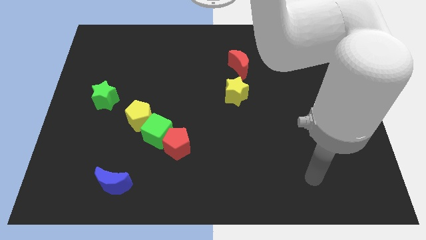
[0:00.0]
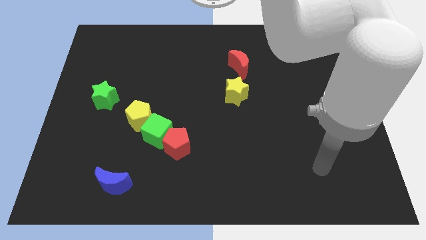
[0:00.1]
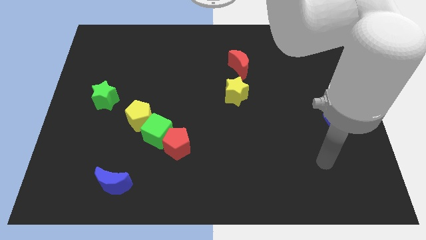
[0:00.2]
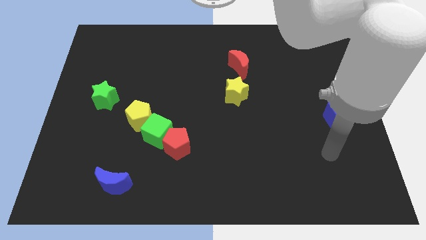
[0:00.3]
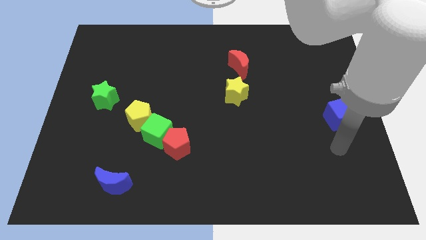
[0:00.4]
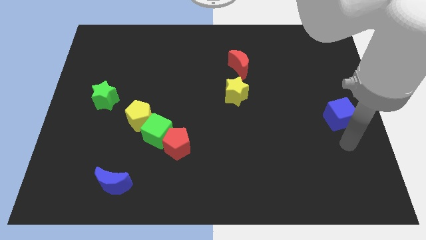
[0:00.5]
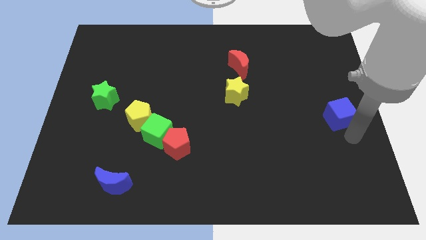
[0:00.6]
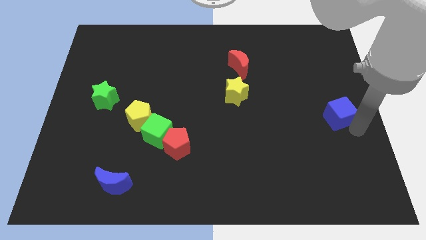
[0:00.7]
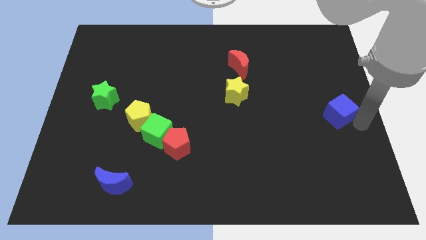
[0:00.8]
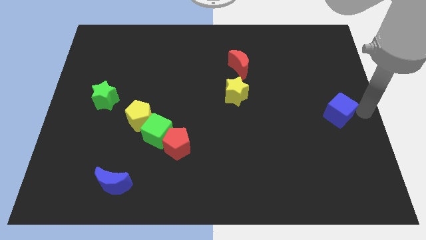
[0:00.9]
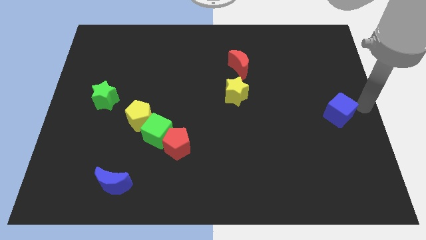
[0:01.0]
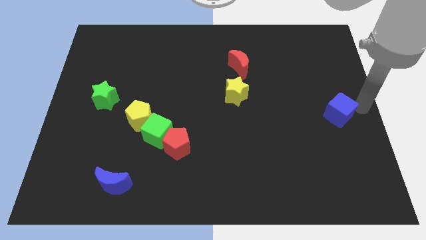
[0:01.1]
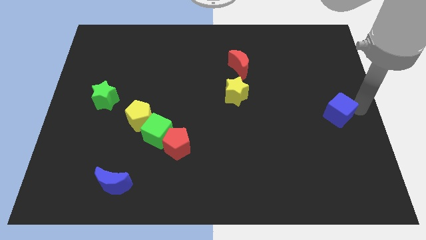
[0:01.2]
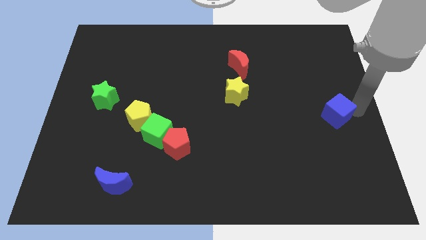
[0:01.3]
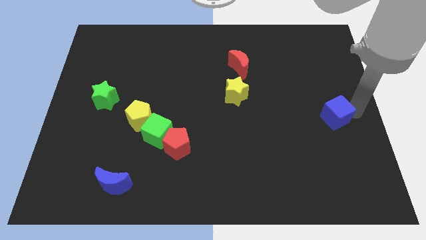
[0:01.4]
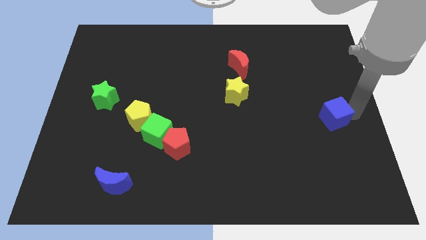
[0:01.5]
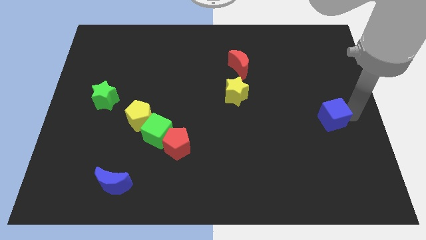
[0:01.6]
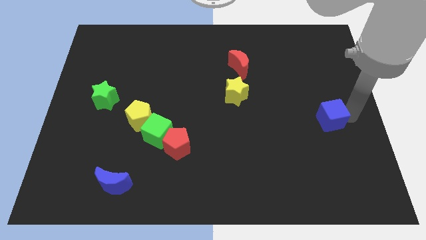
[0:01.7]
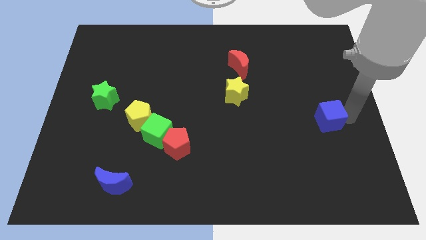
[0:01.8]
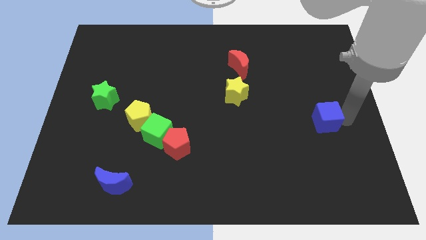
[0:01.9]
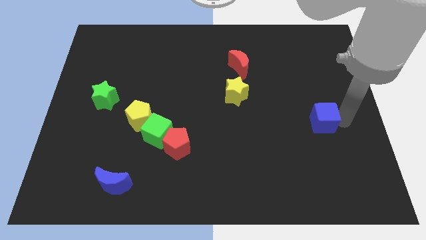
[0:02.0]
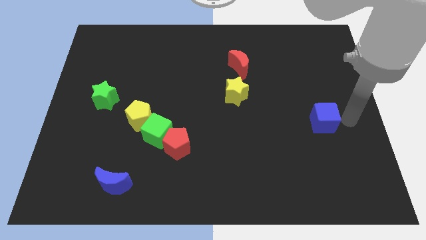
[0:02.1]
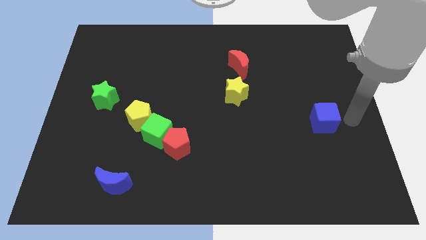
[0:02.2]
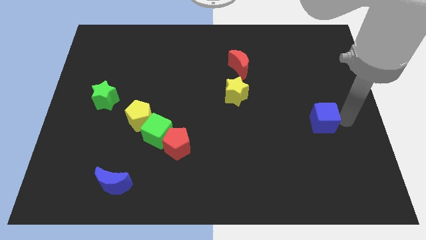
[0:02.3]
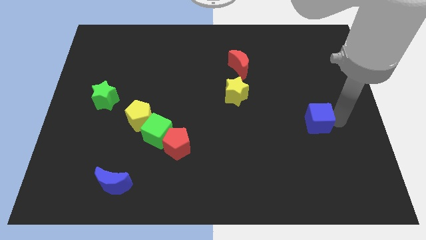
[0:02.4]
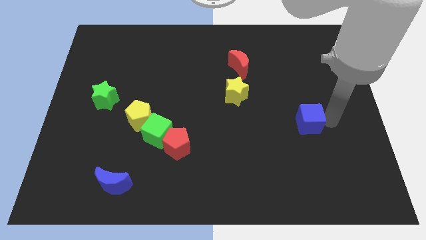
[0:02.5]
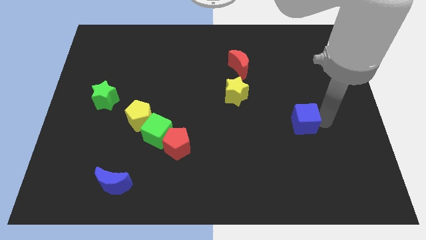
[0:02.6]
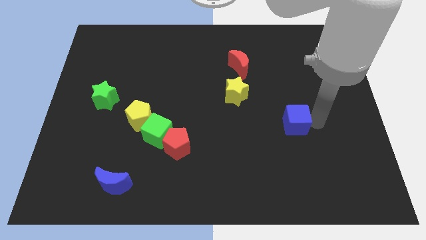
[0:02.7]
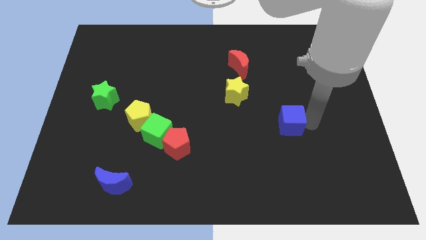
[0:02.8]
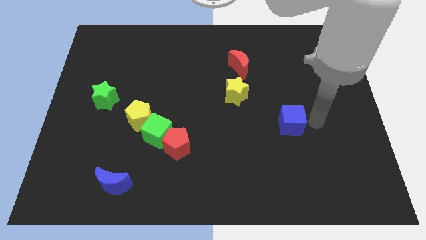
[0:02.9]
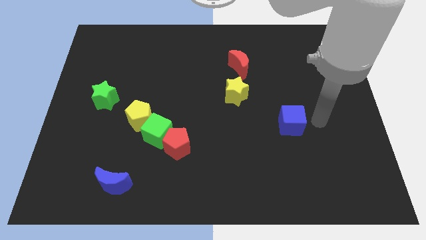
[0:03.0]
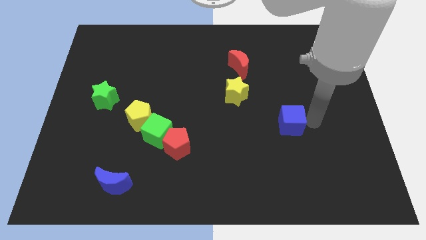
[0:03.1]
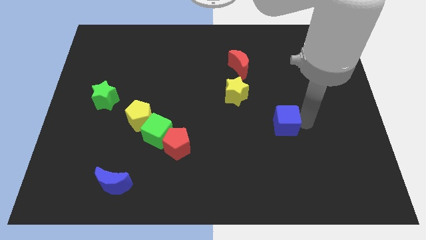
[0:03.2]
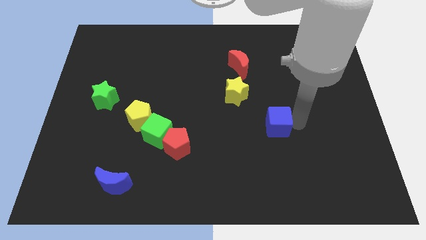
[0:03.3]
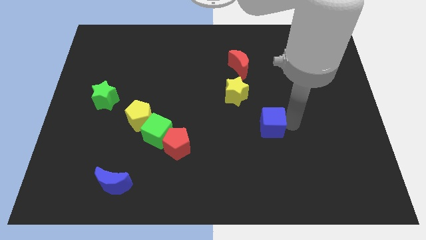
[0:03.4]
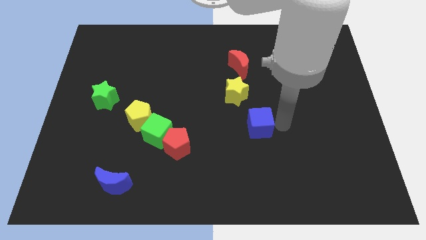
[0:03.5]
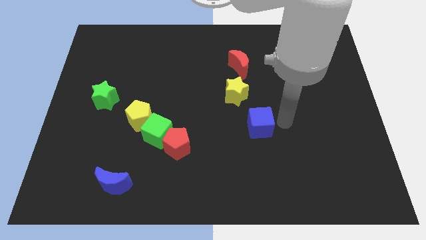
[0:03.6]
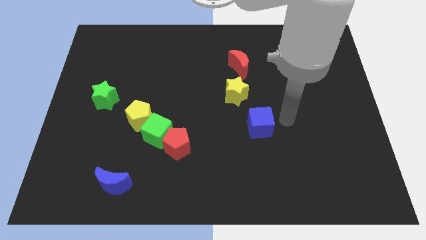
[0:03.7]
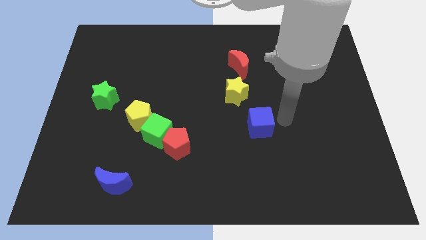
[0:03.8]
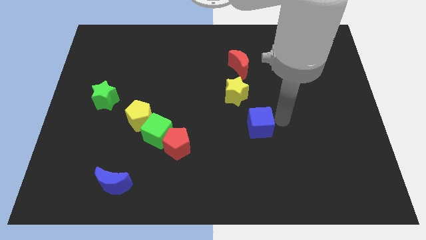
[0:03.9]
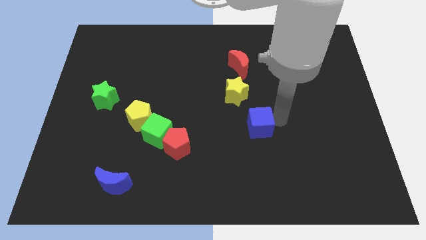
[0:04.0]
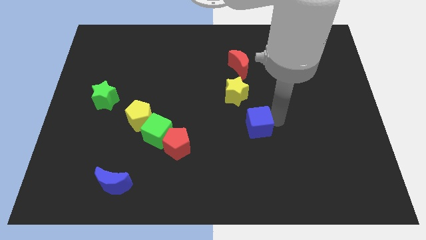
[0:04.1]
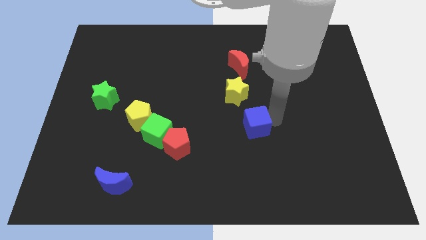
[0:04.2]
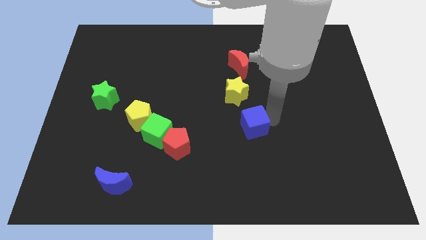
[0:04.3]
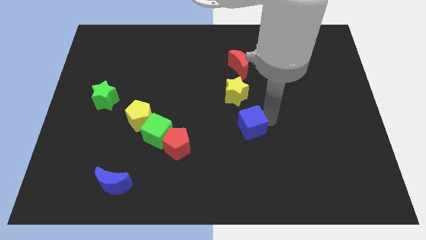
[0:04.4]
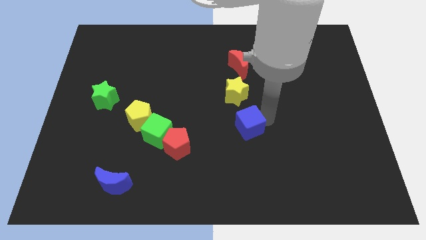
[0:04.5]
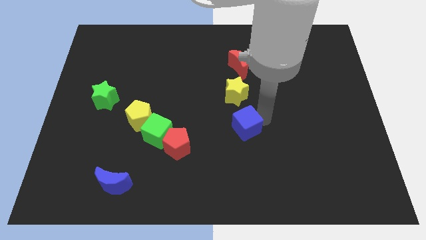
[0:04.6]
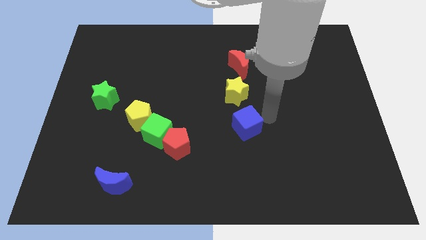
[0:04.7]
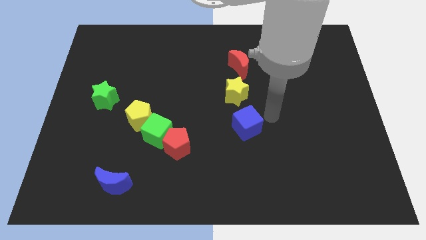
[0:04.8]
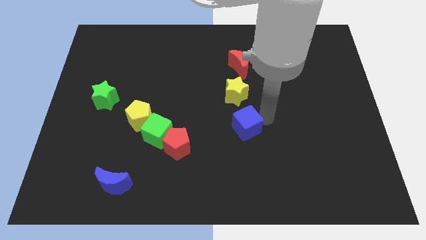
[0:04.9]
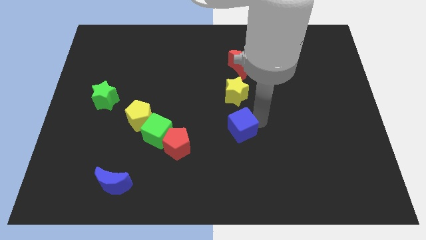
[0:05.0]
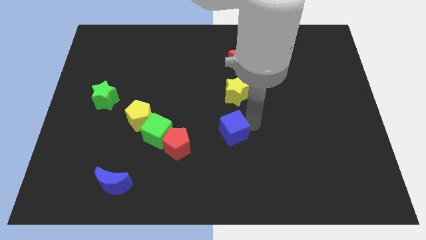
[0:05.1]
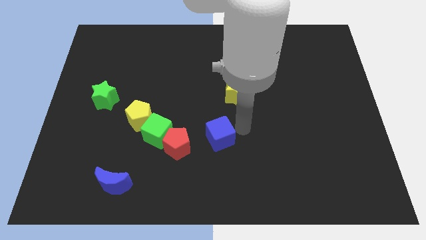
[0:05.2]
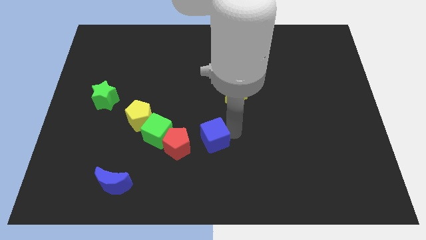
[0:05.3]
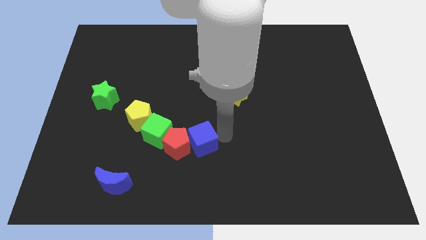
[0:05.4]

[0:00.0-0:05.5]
slide the blue cube towards the red pentagon

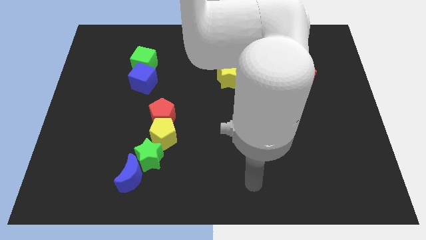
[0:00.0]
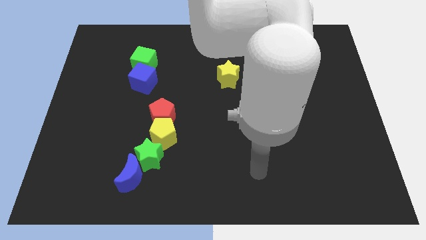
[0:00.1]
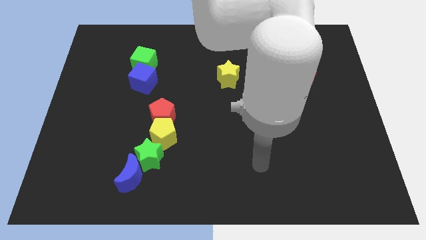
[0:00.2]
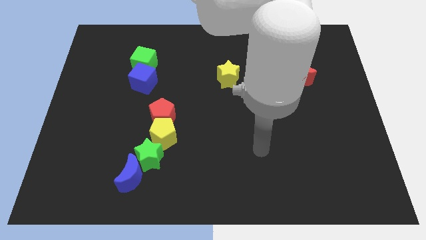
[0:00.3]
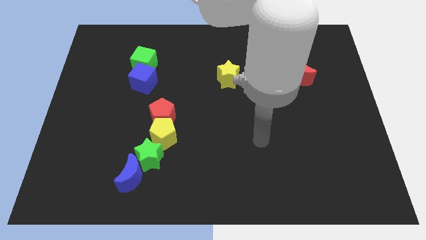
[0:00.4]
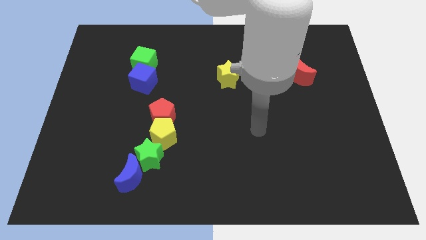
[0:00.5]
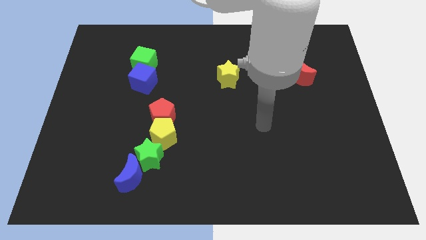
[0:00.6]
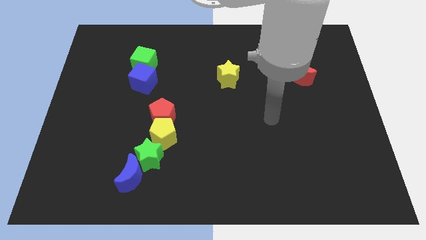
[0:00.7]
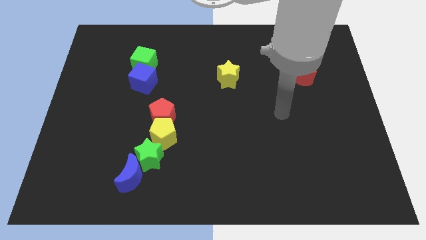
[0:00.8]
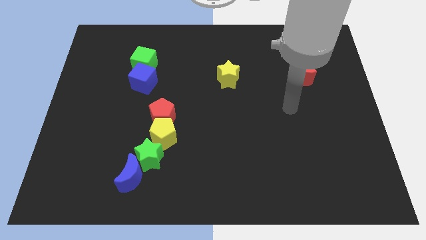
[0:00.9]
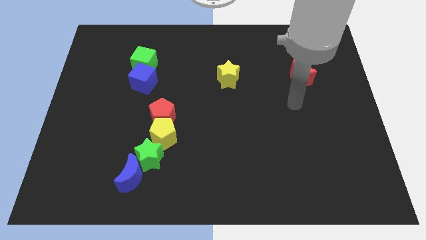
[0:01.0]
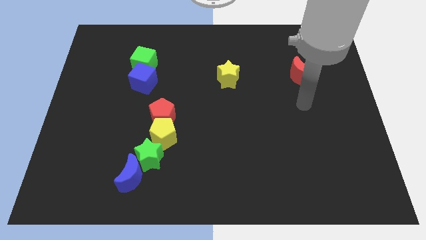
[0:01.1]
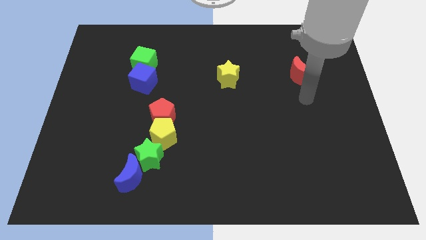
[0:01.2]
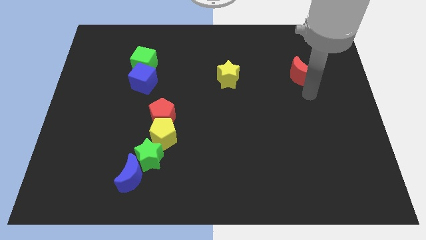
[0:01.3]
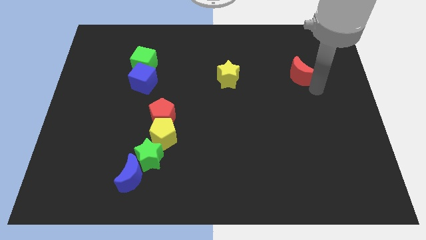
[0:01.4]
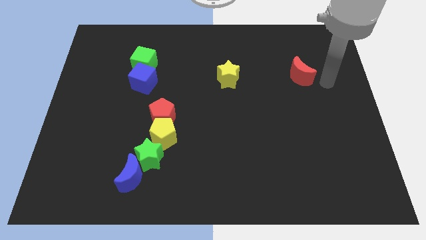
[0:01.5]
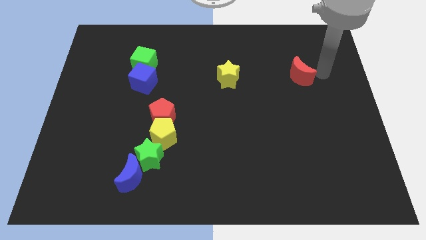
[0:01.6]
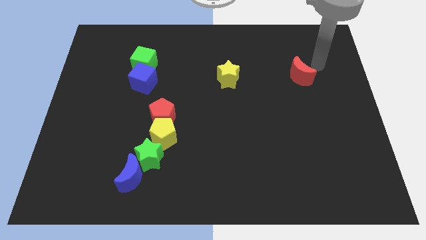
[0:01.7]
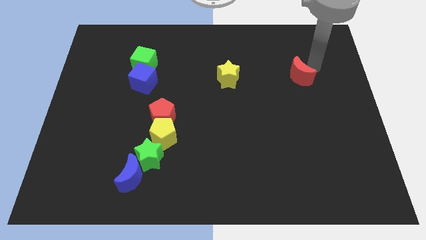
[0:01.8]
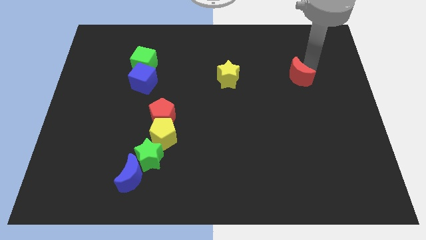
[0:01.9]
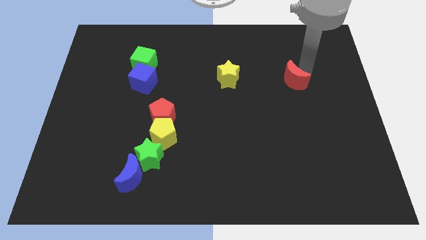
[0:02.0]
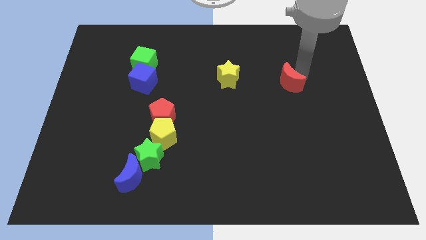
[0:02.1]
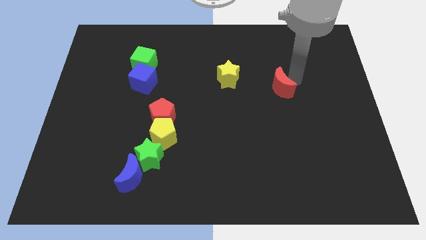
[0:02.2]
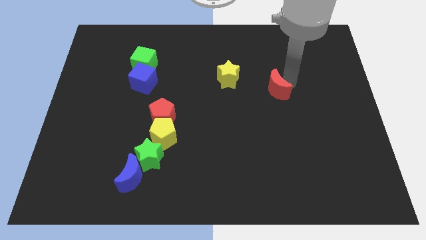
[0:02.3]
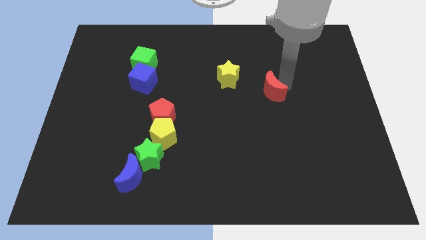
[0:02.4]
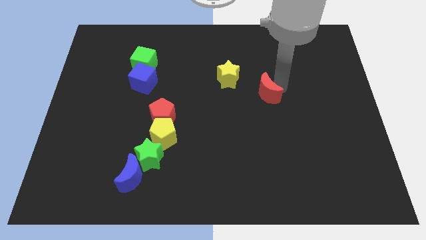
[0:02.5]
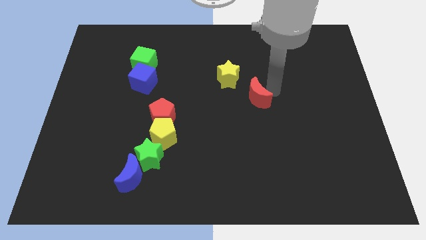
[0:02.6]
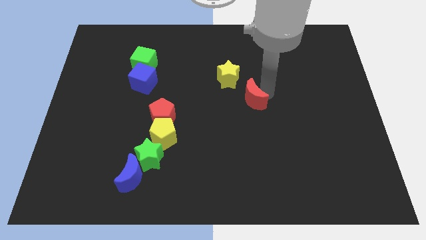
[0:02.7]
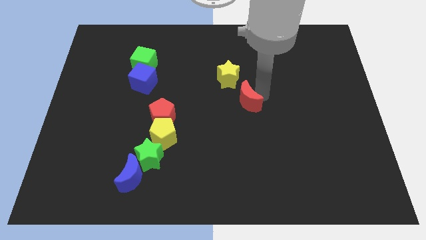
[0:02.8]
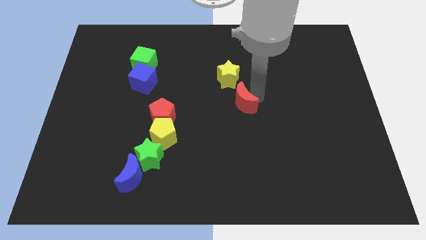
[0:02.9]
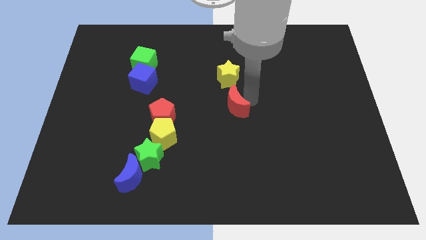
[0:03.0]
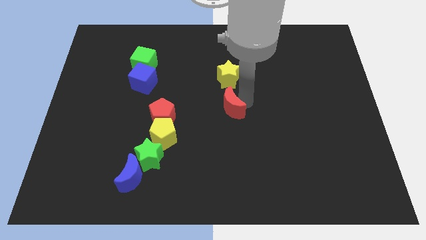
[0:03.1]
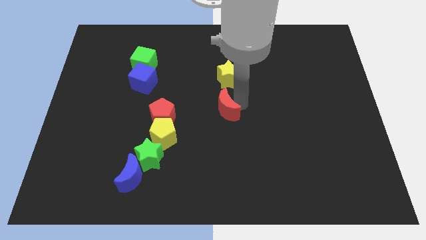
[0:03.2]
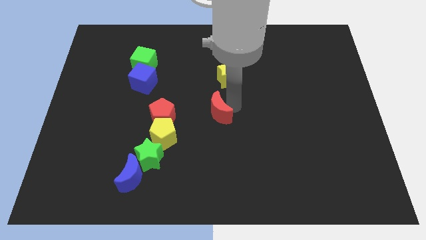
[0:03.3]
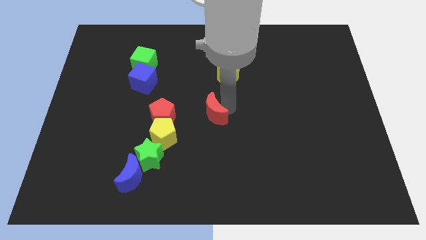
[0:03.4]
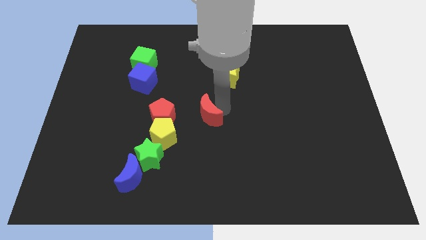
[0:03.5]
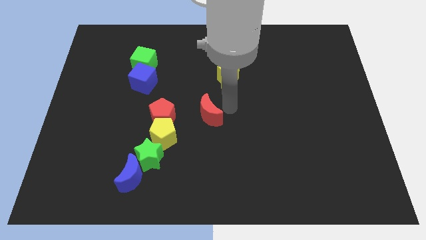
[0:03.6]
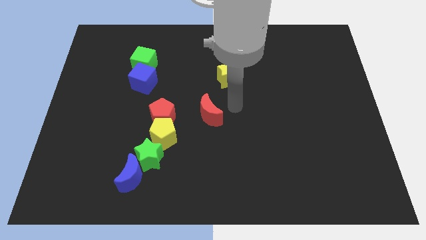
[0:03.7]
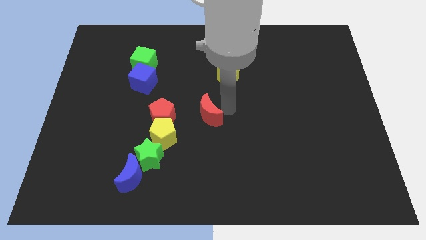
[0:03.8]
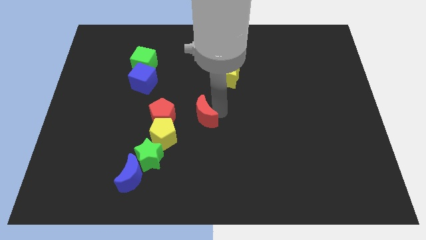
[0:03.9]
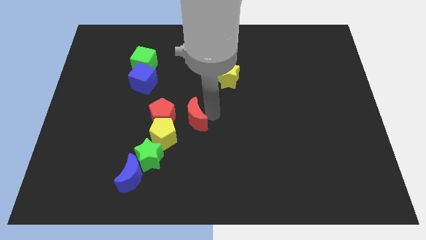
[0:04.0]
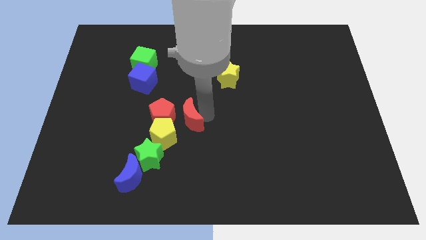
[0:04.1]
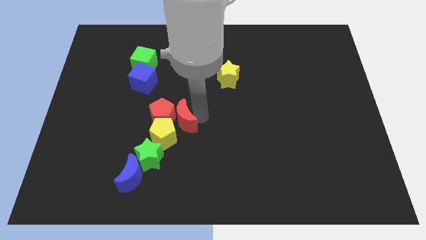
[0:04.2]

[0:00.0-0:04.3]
push the red moon towards the yellow pentagon
